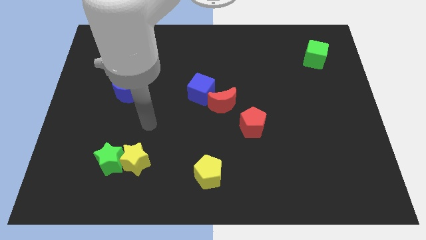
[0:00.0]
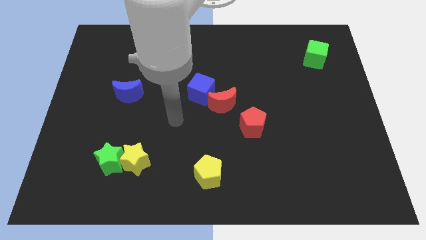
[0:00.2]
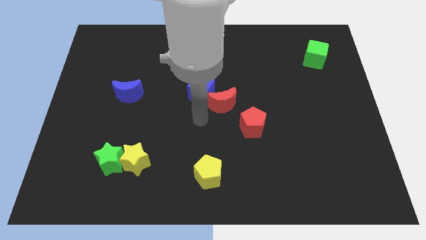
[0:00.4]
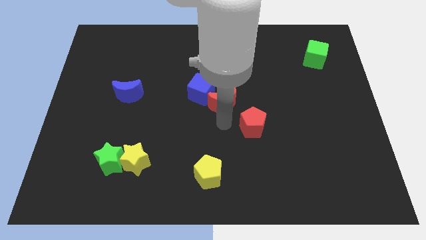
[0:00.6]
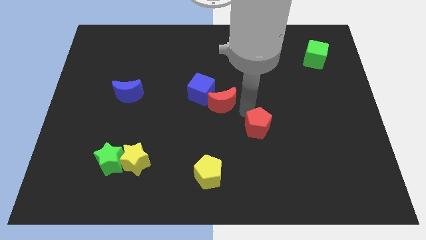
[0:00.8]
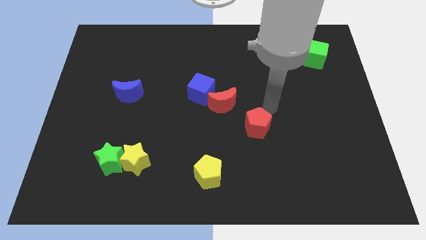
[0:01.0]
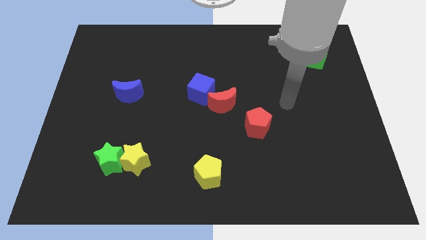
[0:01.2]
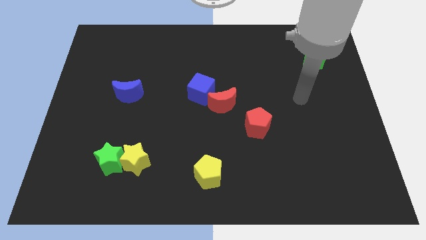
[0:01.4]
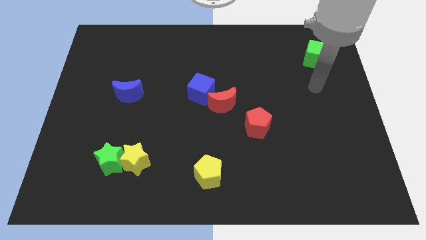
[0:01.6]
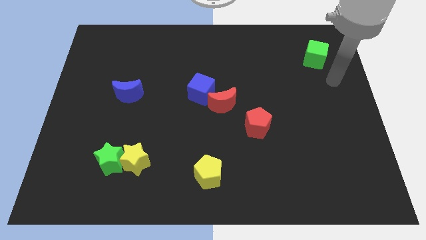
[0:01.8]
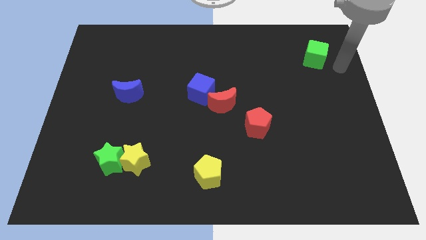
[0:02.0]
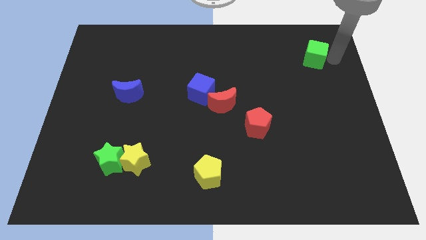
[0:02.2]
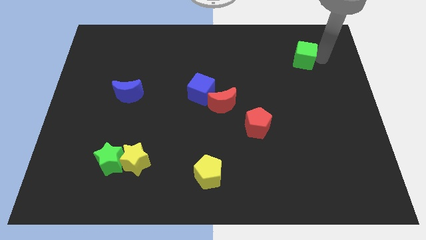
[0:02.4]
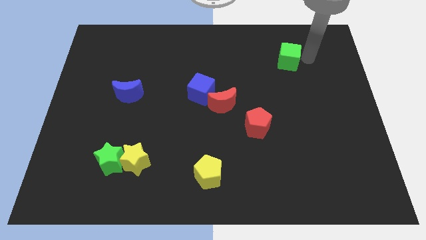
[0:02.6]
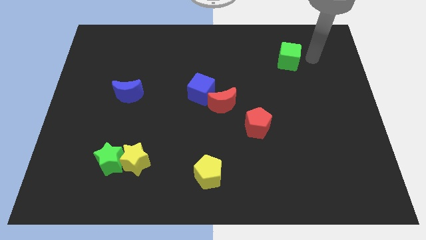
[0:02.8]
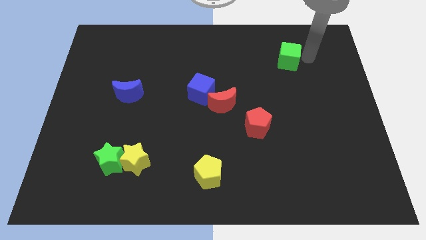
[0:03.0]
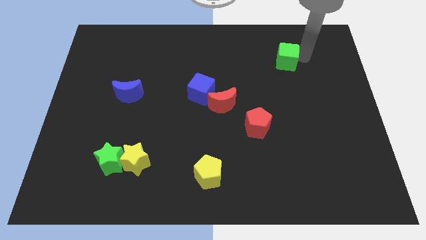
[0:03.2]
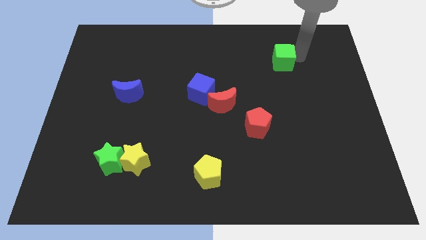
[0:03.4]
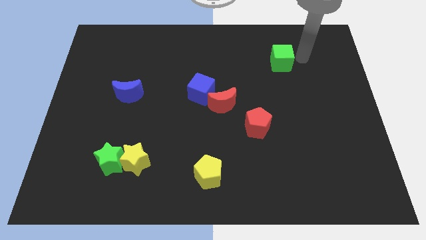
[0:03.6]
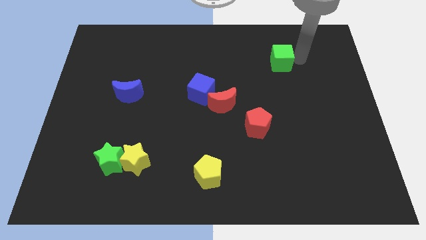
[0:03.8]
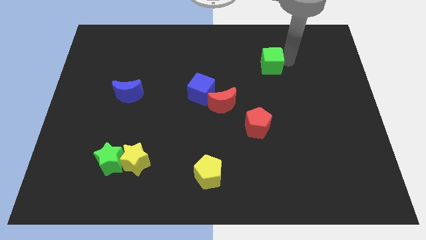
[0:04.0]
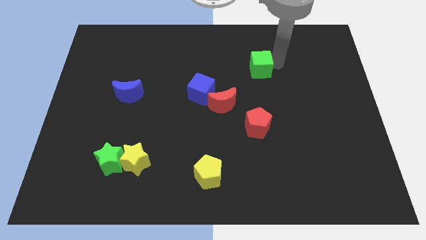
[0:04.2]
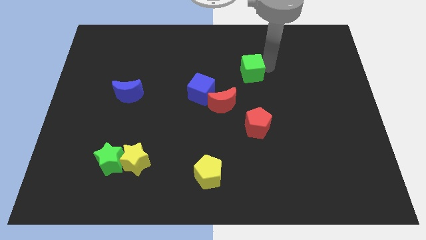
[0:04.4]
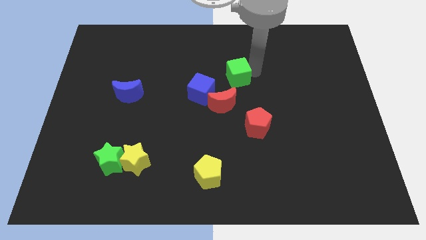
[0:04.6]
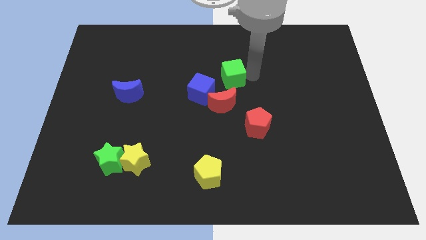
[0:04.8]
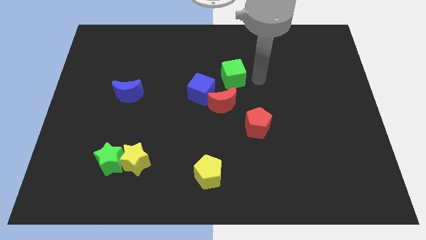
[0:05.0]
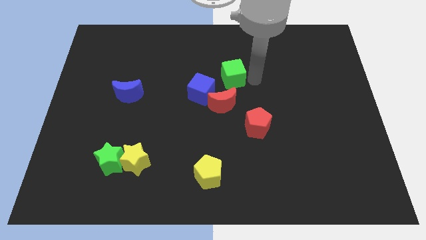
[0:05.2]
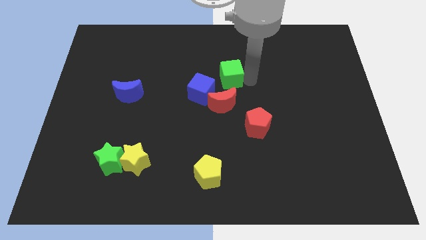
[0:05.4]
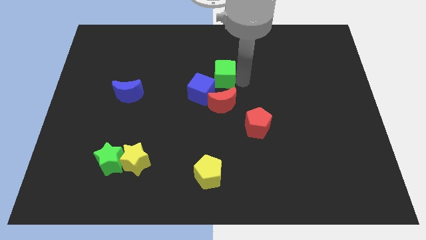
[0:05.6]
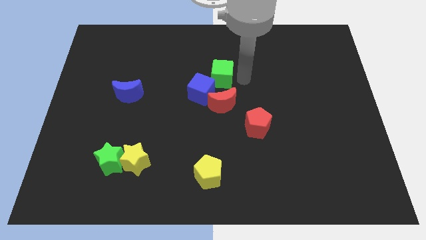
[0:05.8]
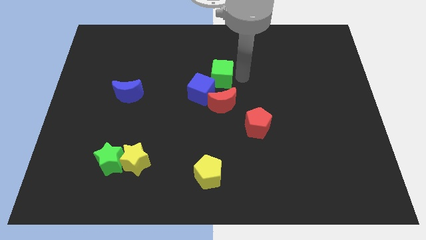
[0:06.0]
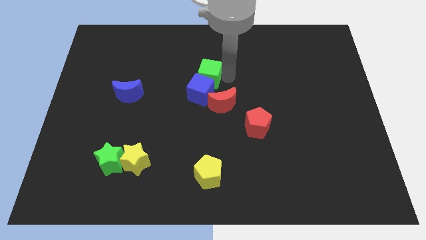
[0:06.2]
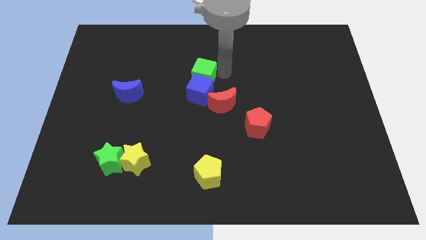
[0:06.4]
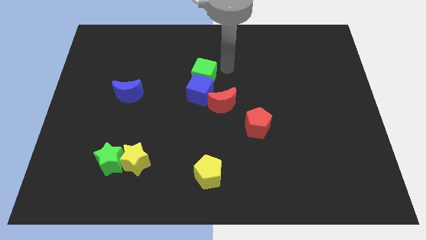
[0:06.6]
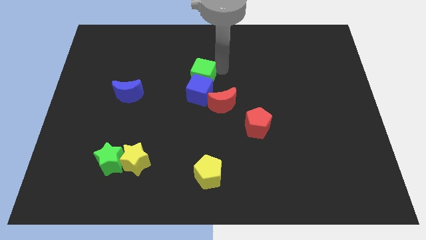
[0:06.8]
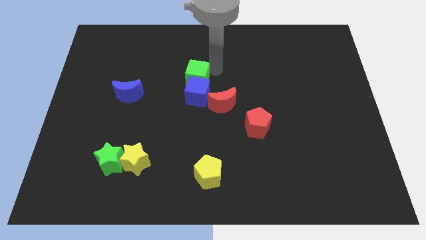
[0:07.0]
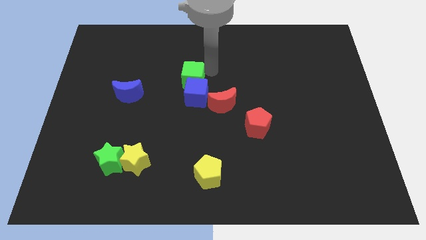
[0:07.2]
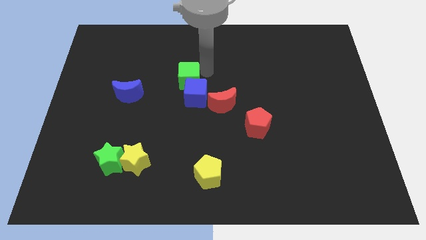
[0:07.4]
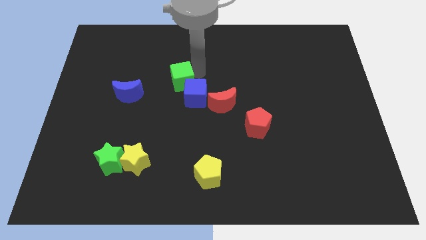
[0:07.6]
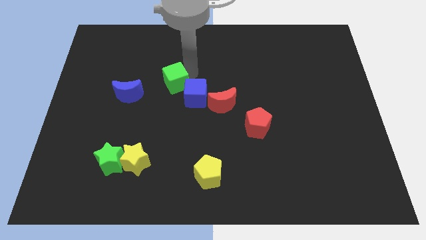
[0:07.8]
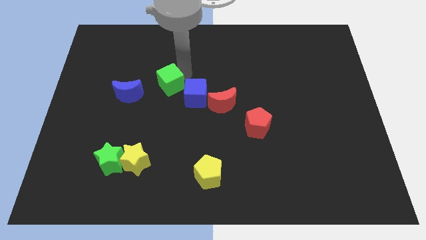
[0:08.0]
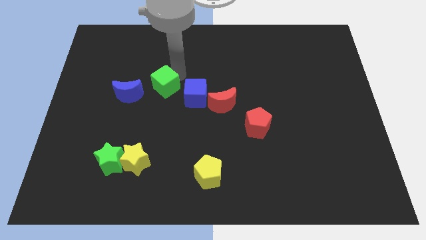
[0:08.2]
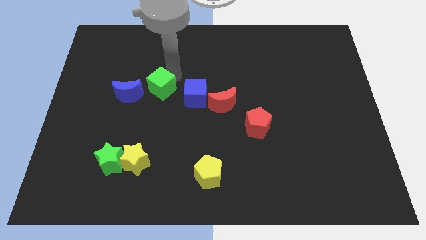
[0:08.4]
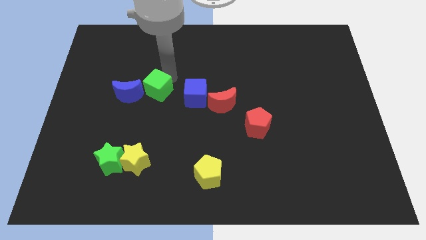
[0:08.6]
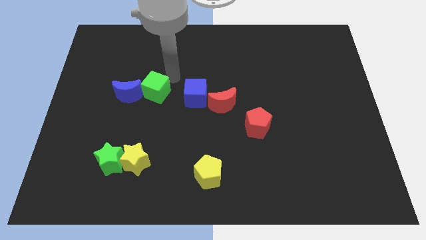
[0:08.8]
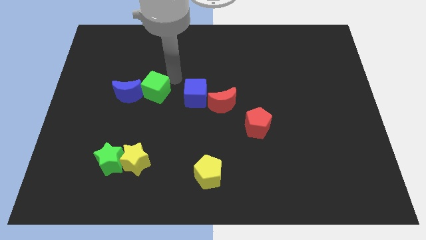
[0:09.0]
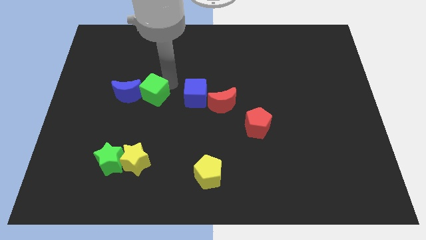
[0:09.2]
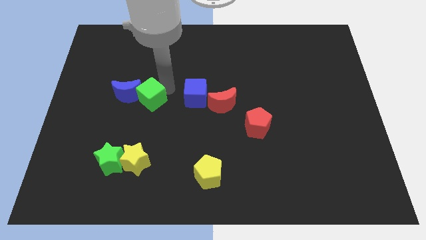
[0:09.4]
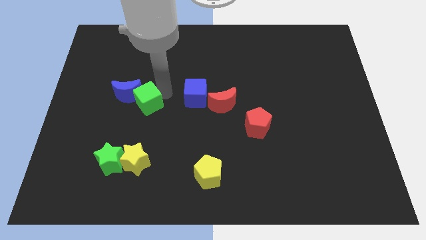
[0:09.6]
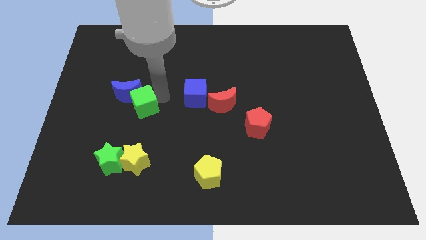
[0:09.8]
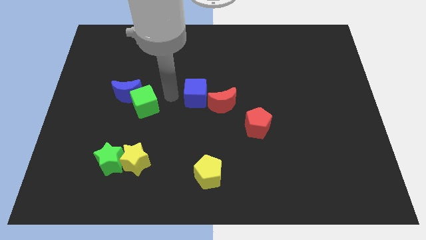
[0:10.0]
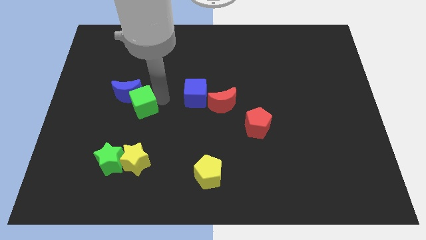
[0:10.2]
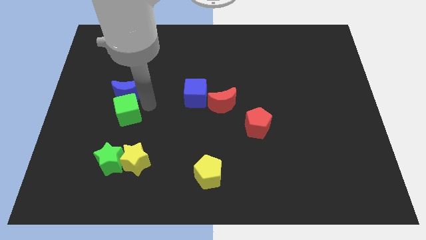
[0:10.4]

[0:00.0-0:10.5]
slide the green cube to the bottom left side of the blue moon

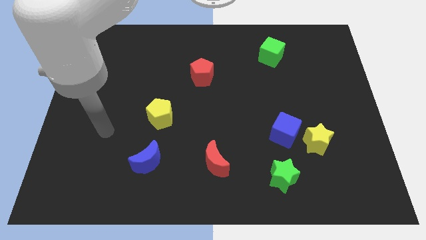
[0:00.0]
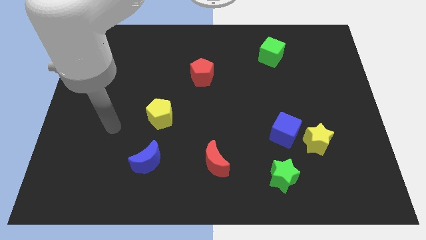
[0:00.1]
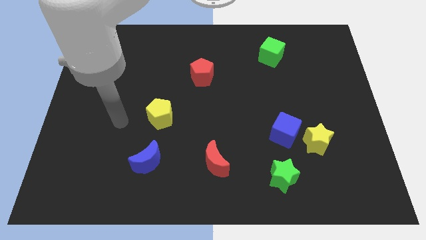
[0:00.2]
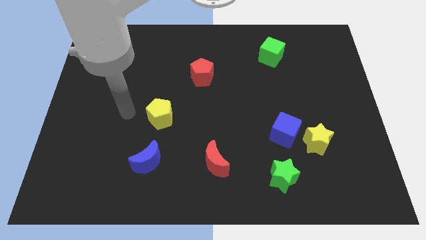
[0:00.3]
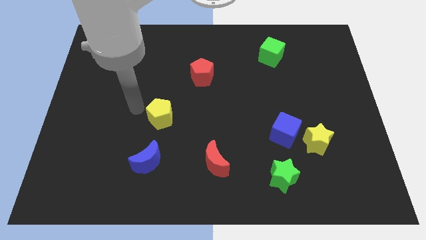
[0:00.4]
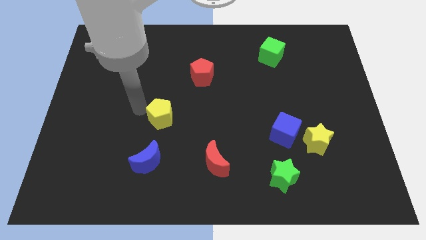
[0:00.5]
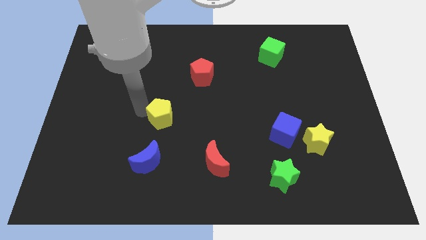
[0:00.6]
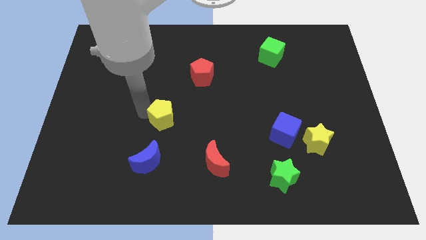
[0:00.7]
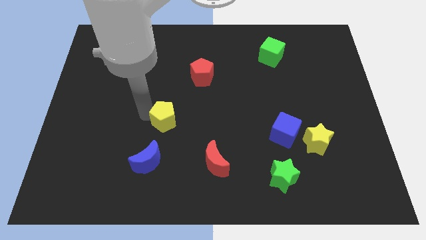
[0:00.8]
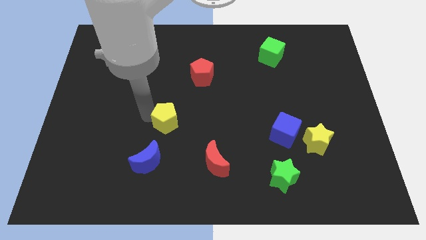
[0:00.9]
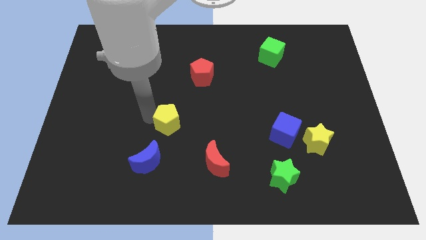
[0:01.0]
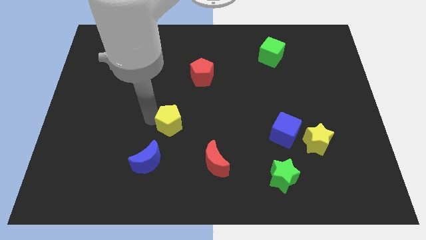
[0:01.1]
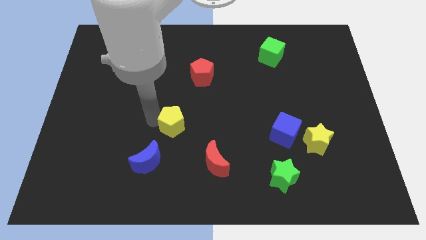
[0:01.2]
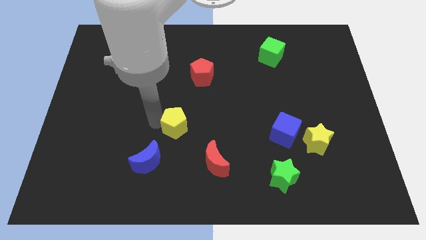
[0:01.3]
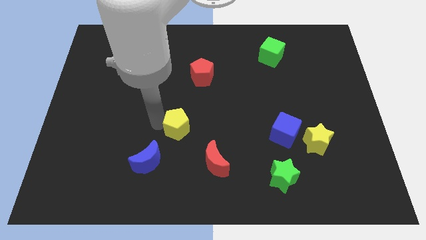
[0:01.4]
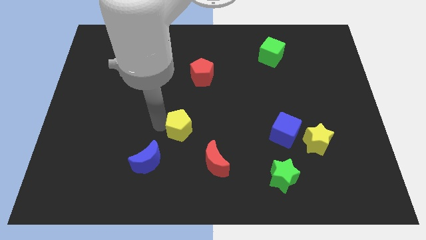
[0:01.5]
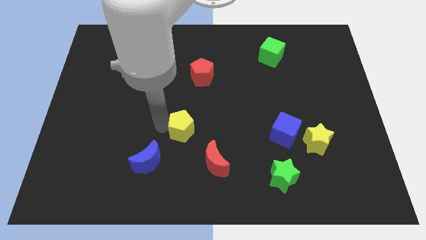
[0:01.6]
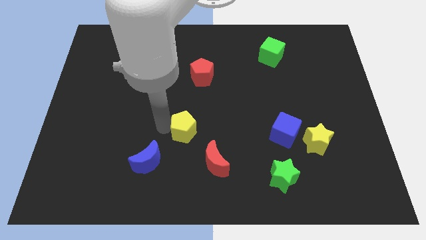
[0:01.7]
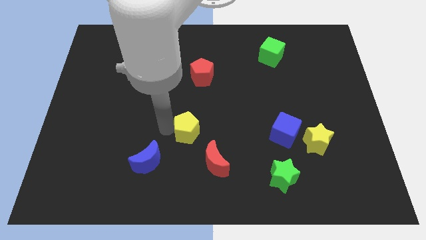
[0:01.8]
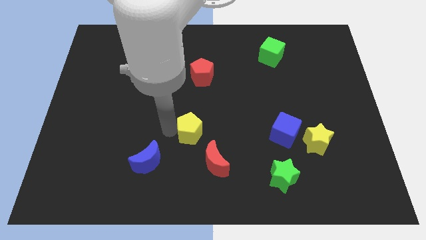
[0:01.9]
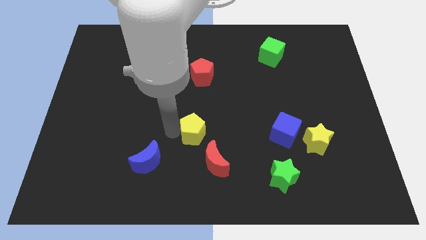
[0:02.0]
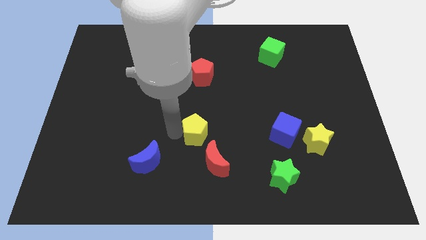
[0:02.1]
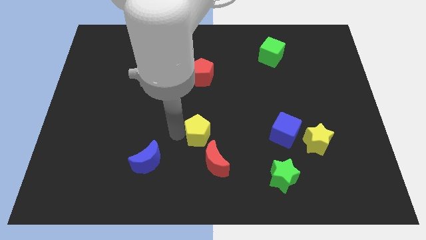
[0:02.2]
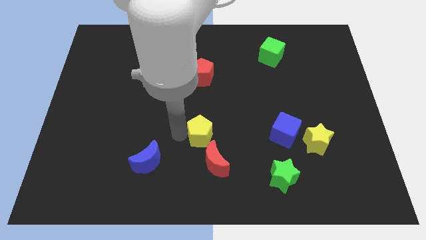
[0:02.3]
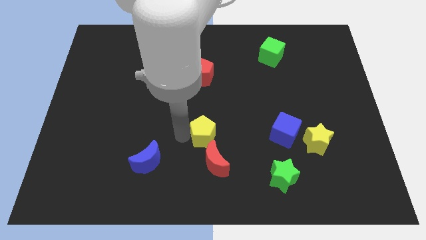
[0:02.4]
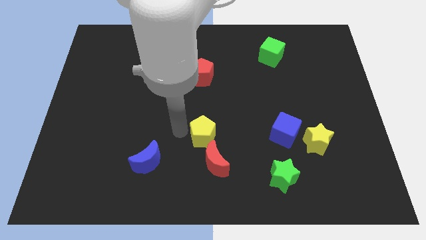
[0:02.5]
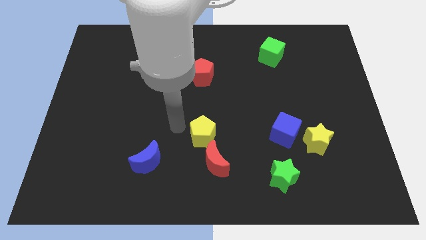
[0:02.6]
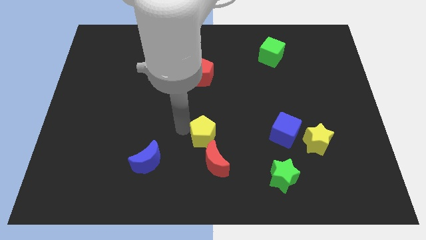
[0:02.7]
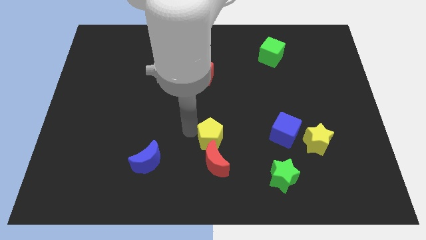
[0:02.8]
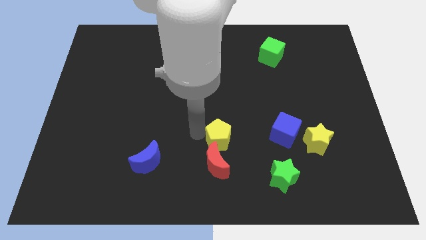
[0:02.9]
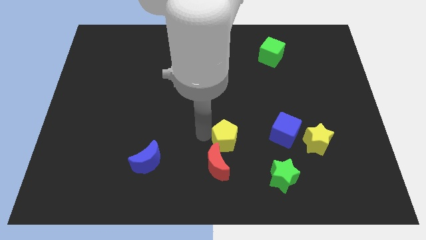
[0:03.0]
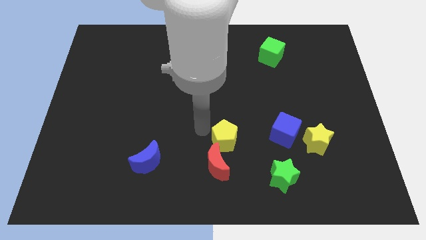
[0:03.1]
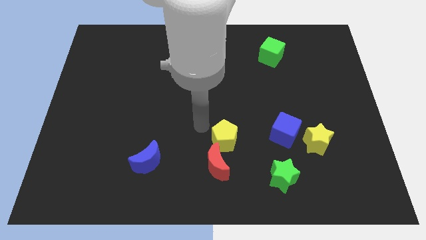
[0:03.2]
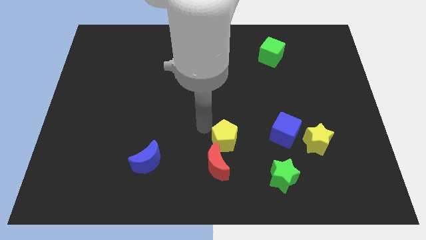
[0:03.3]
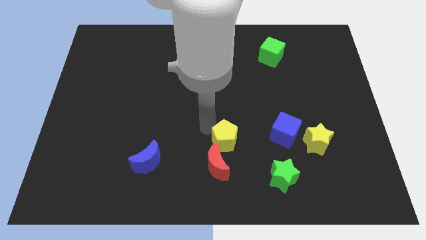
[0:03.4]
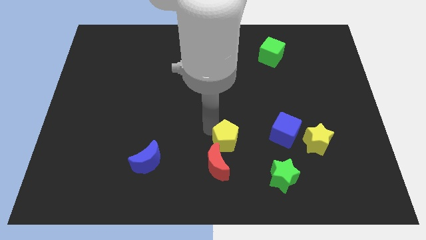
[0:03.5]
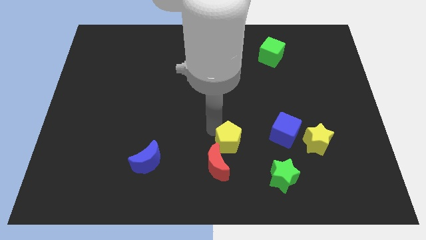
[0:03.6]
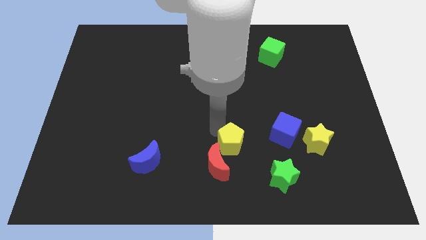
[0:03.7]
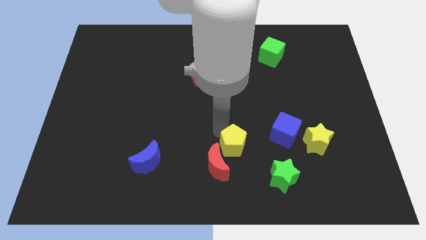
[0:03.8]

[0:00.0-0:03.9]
push the yellow pentagon diagonally up and to the left of the green star
